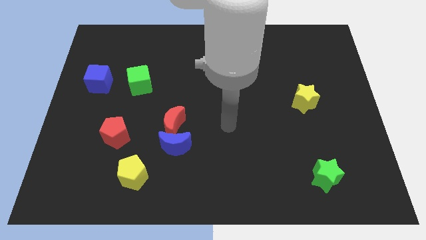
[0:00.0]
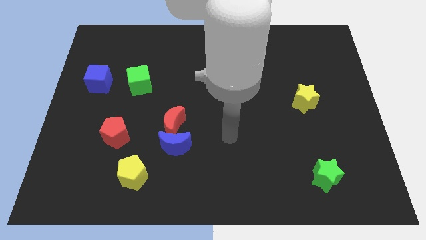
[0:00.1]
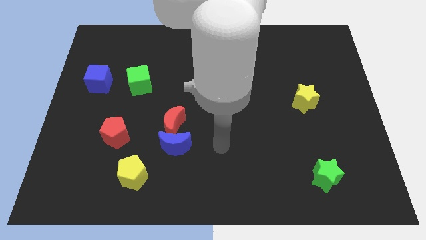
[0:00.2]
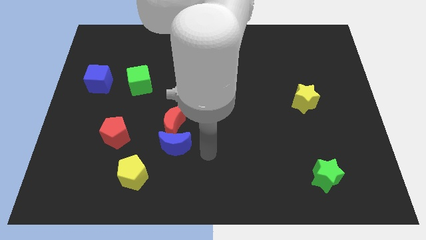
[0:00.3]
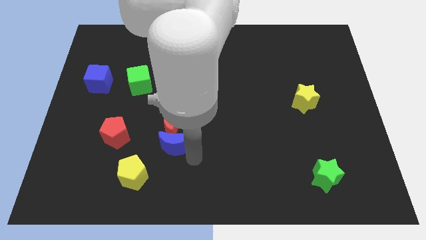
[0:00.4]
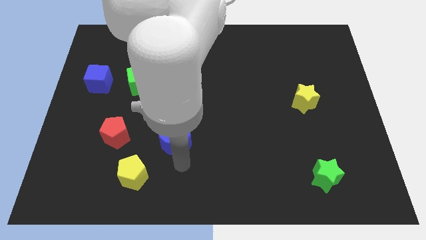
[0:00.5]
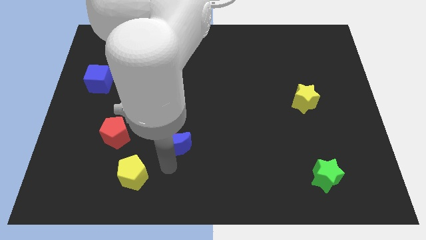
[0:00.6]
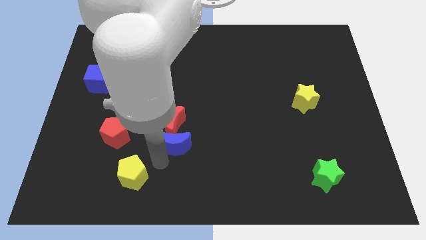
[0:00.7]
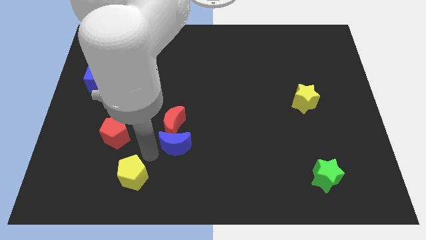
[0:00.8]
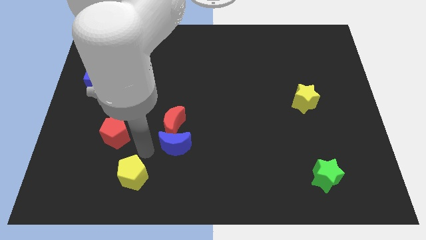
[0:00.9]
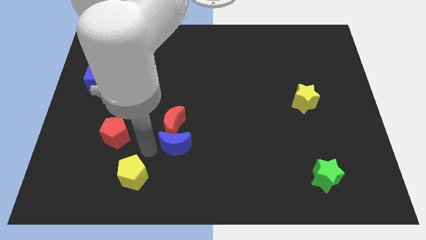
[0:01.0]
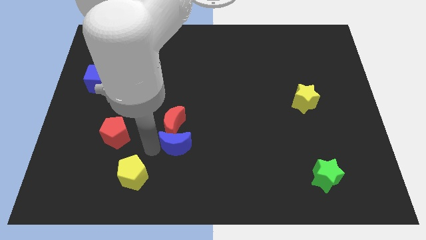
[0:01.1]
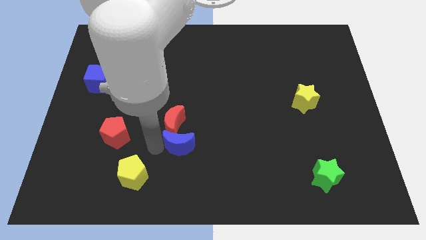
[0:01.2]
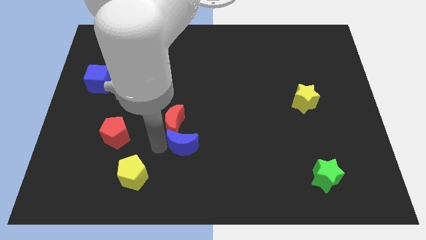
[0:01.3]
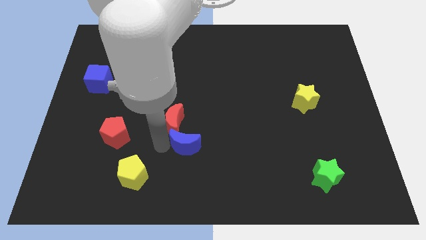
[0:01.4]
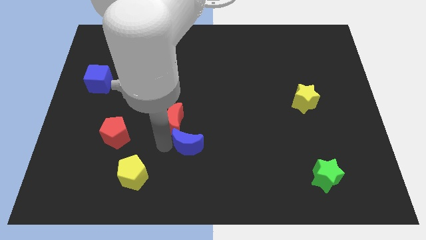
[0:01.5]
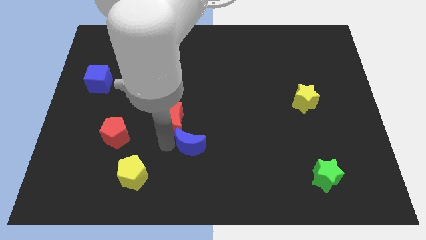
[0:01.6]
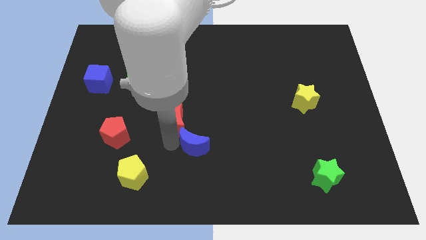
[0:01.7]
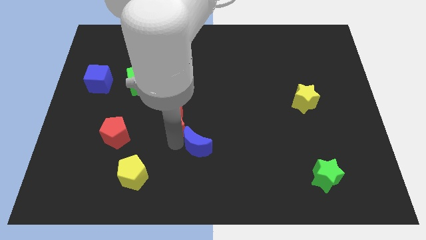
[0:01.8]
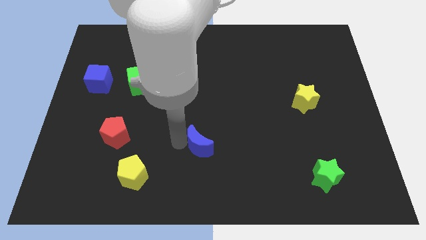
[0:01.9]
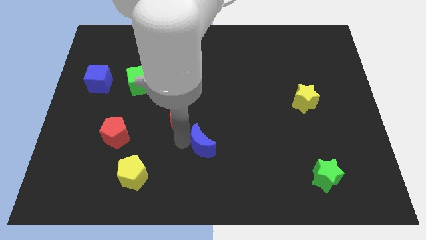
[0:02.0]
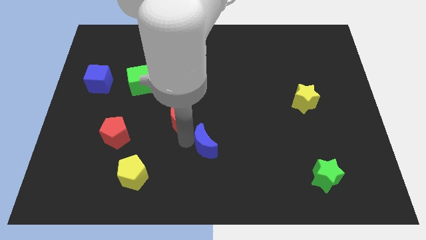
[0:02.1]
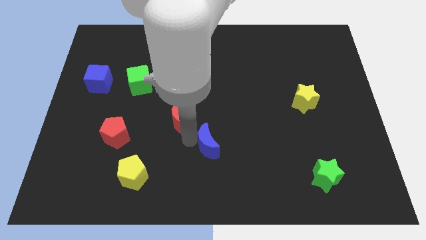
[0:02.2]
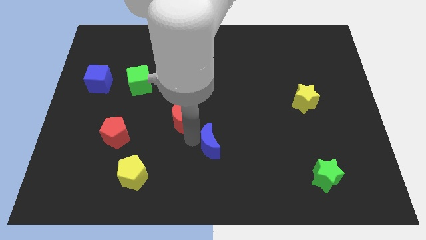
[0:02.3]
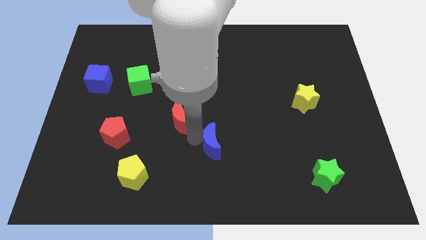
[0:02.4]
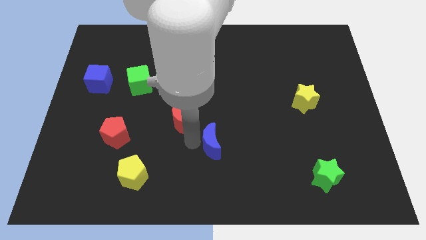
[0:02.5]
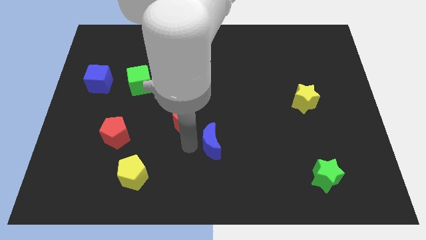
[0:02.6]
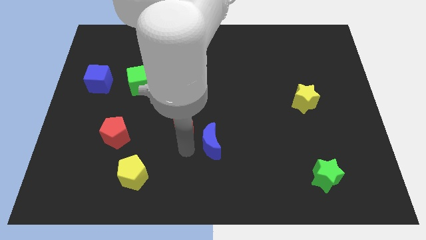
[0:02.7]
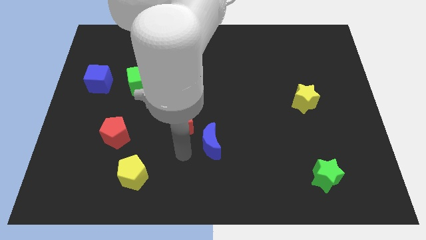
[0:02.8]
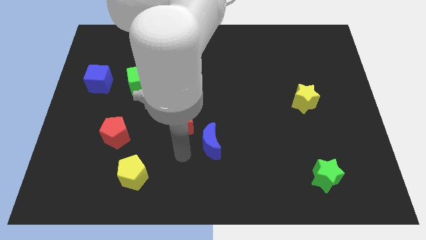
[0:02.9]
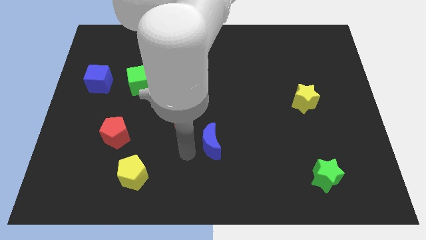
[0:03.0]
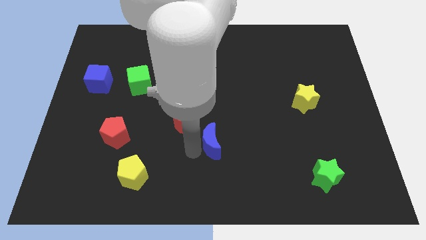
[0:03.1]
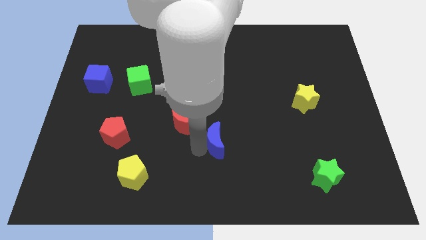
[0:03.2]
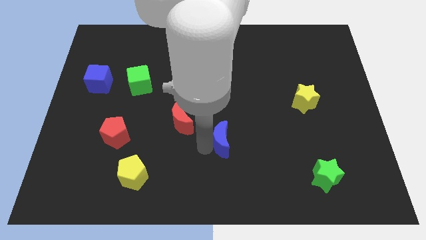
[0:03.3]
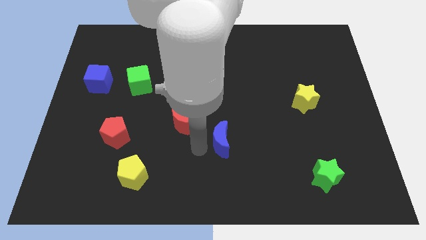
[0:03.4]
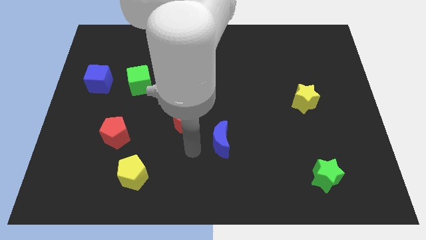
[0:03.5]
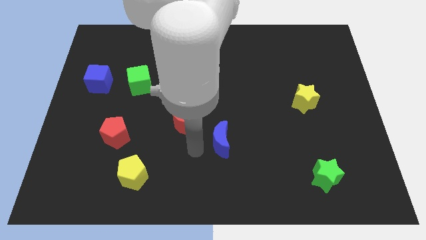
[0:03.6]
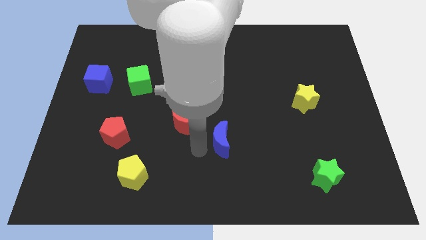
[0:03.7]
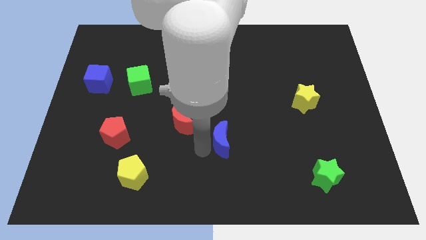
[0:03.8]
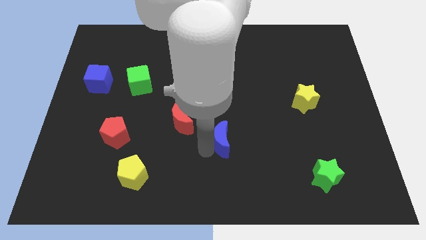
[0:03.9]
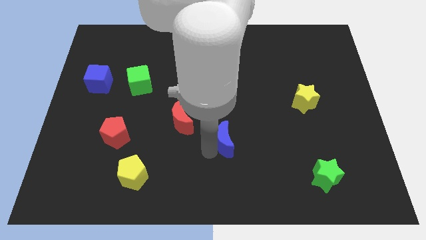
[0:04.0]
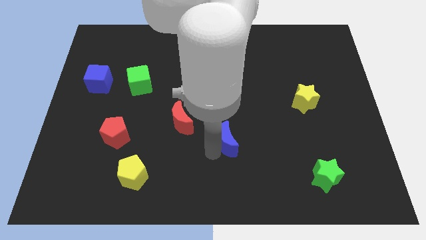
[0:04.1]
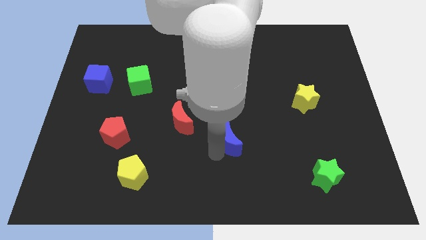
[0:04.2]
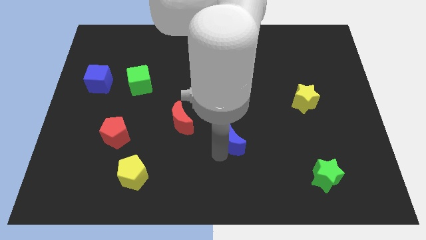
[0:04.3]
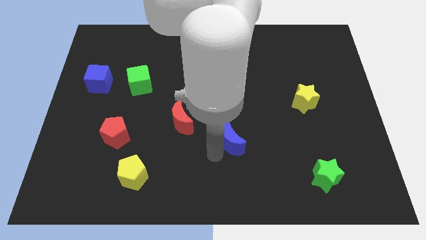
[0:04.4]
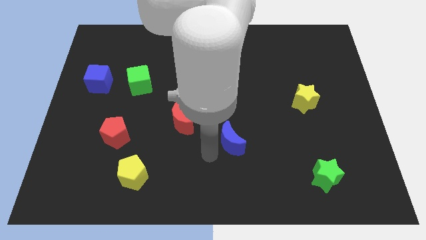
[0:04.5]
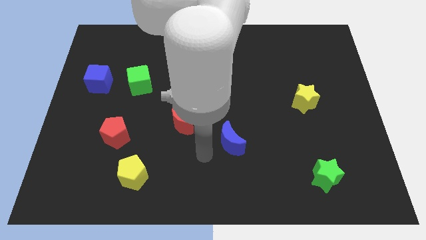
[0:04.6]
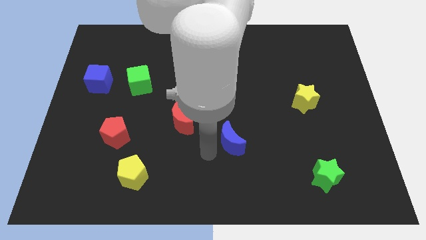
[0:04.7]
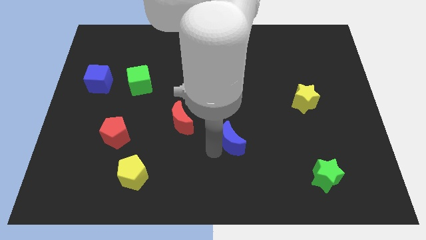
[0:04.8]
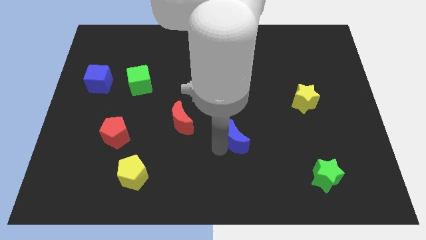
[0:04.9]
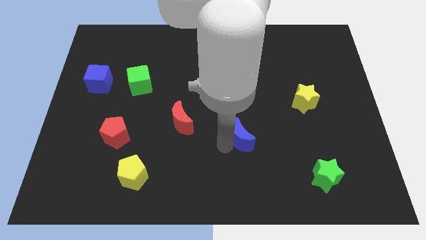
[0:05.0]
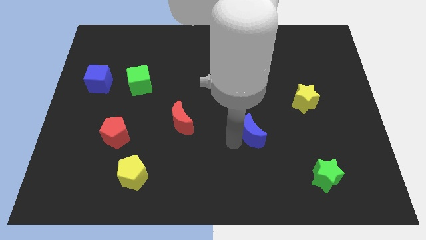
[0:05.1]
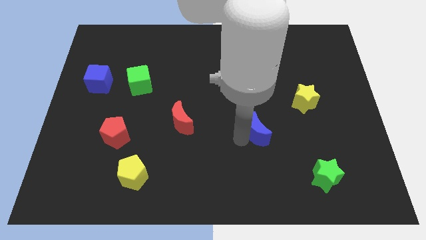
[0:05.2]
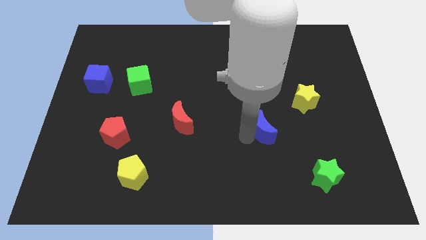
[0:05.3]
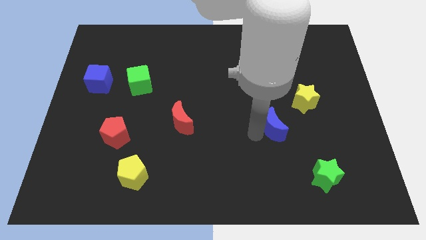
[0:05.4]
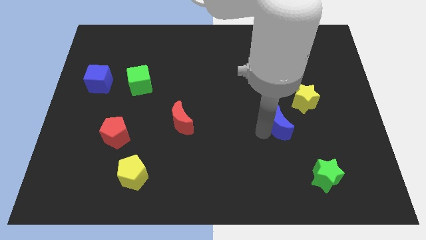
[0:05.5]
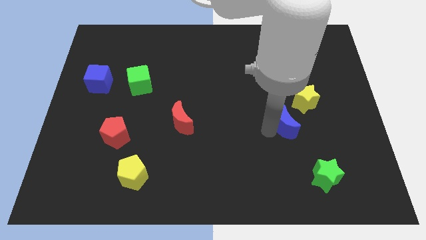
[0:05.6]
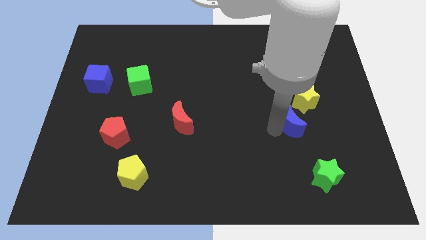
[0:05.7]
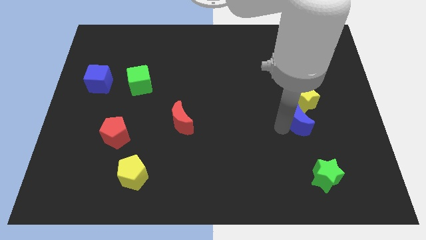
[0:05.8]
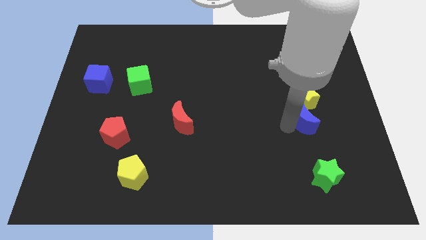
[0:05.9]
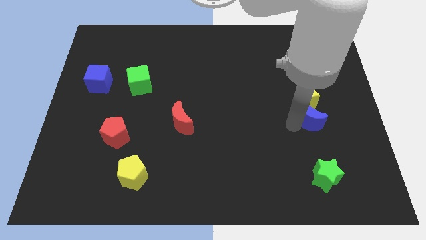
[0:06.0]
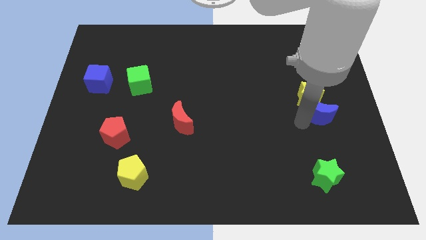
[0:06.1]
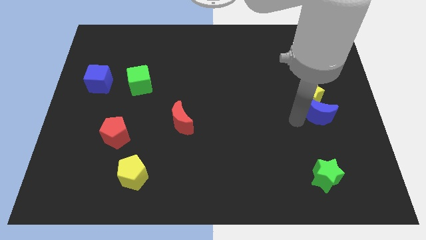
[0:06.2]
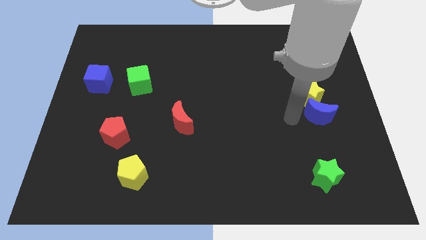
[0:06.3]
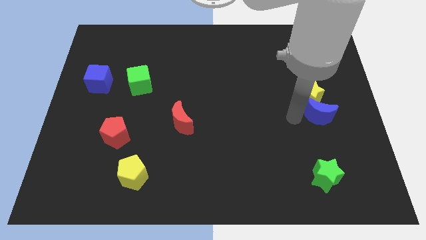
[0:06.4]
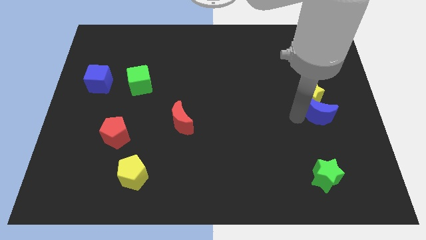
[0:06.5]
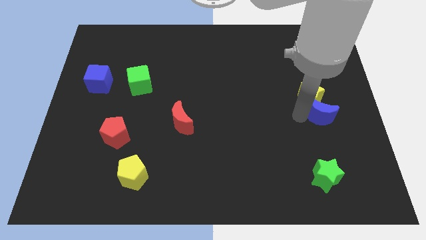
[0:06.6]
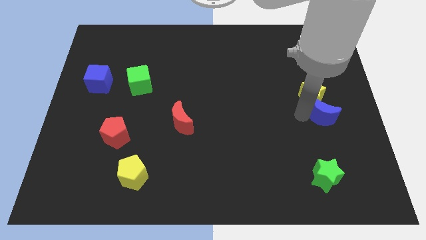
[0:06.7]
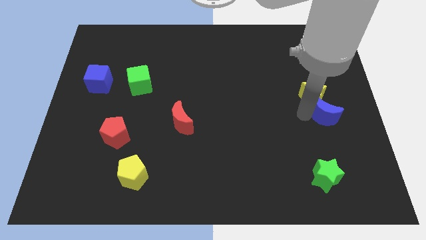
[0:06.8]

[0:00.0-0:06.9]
put the blue moon to the right side
